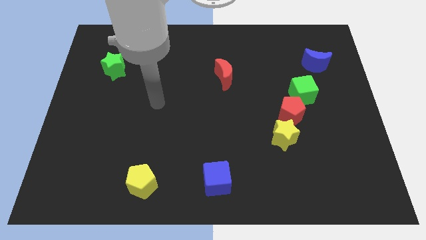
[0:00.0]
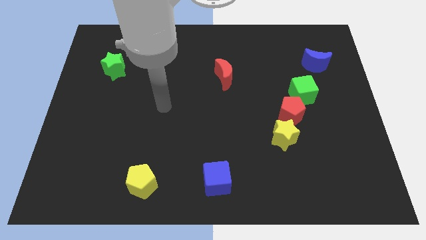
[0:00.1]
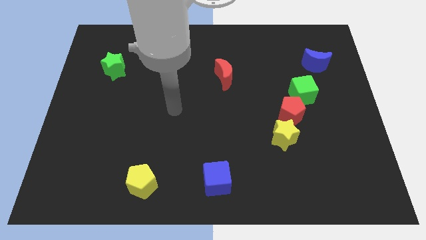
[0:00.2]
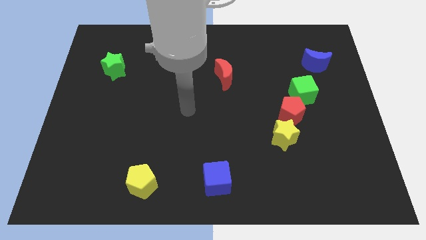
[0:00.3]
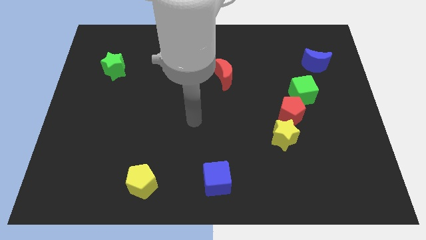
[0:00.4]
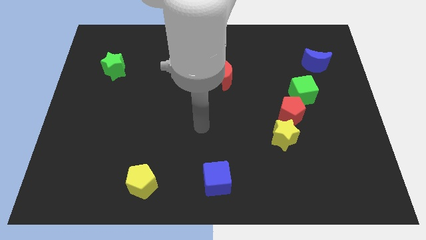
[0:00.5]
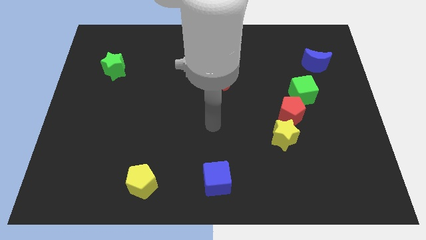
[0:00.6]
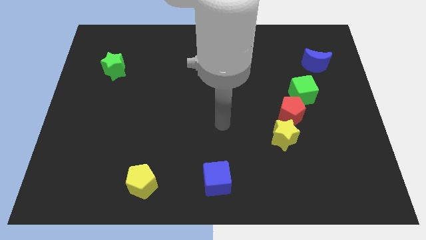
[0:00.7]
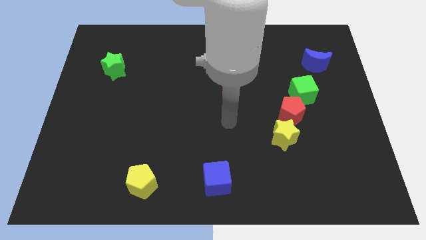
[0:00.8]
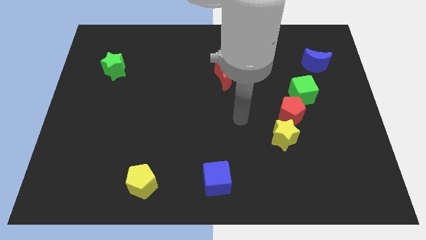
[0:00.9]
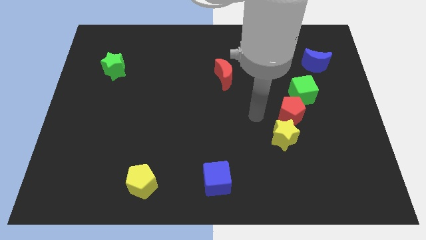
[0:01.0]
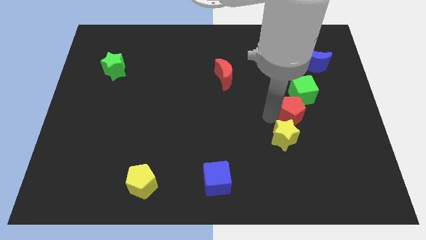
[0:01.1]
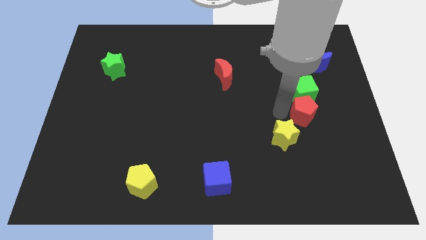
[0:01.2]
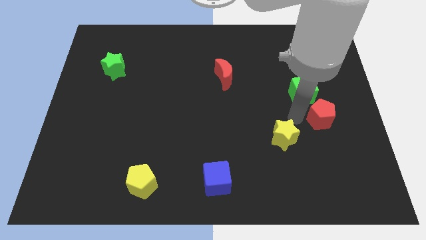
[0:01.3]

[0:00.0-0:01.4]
separate the yellow star from the red pentagon

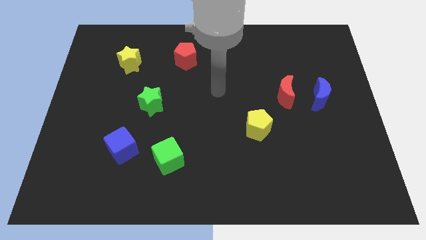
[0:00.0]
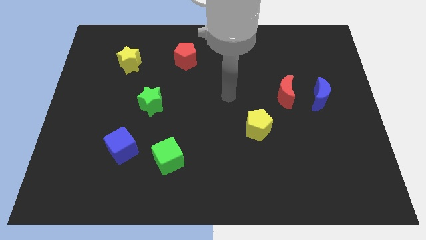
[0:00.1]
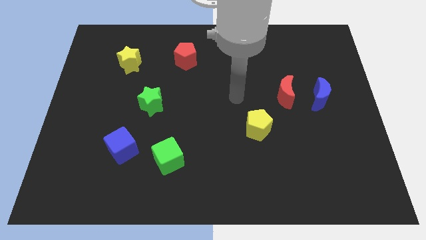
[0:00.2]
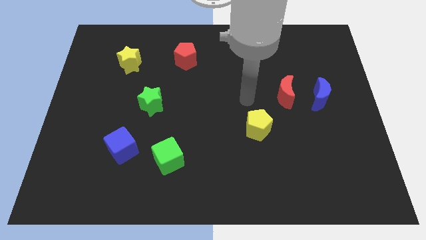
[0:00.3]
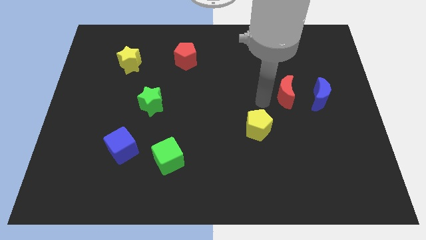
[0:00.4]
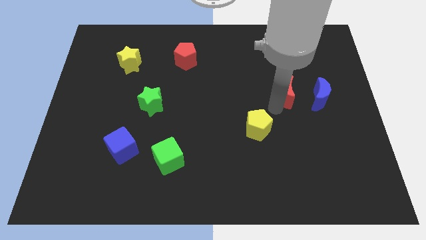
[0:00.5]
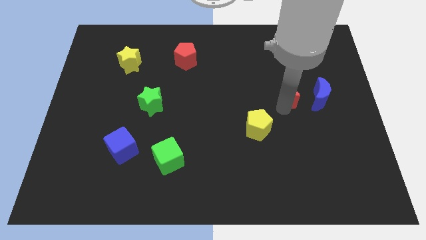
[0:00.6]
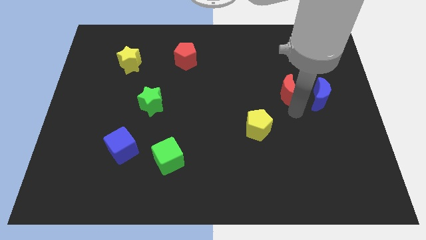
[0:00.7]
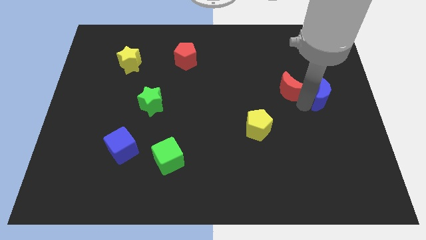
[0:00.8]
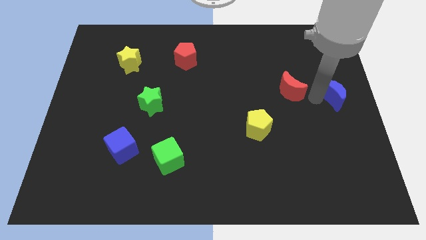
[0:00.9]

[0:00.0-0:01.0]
move the red moon away from the blue moon

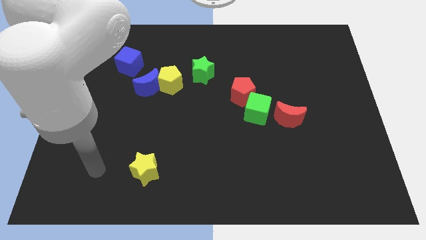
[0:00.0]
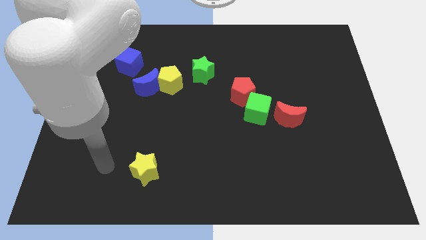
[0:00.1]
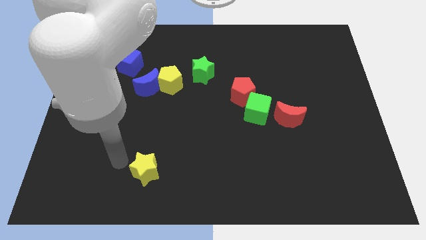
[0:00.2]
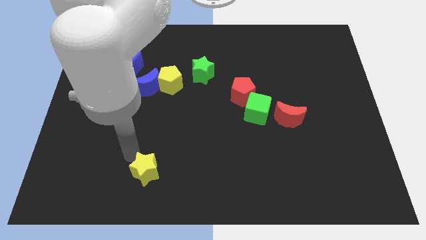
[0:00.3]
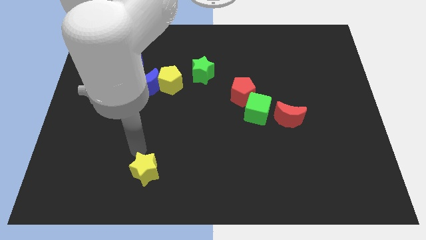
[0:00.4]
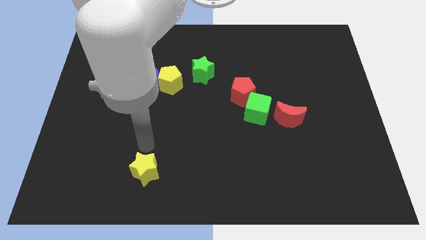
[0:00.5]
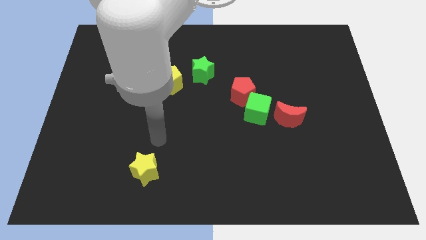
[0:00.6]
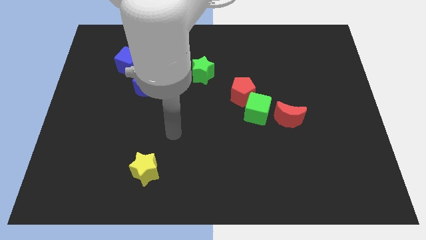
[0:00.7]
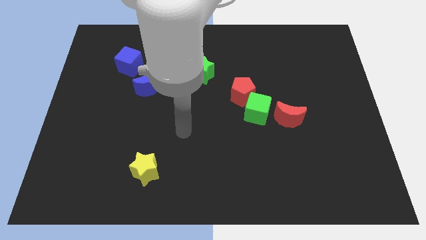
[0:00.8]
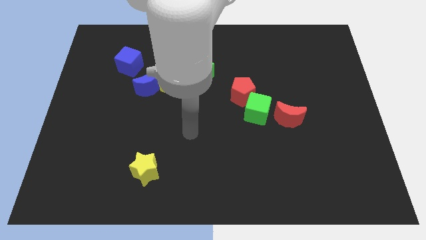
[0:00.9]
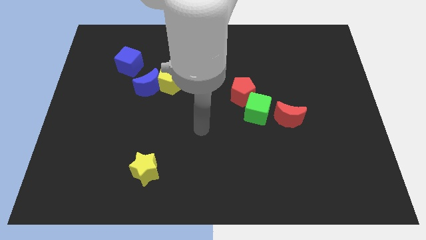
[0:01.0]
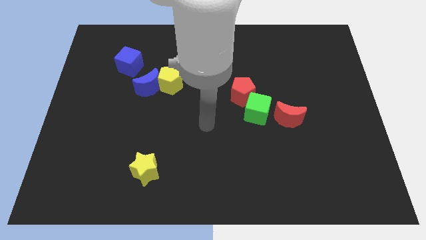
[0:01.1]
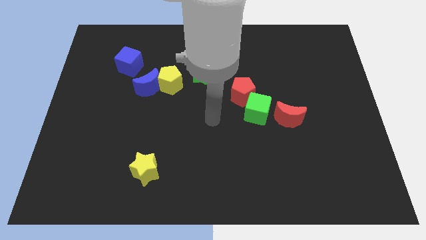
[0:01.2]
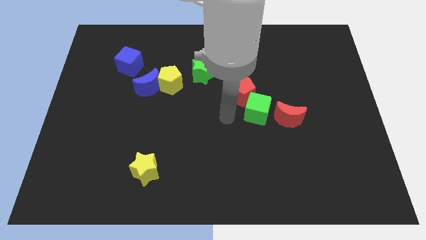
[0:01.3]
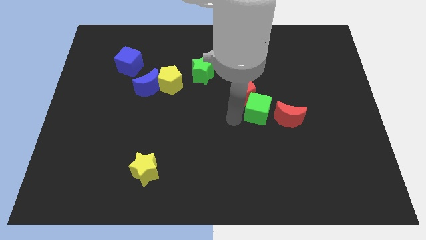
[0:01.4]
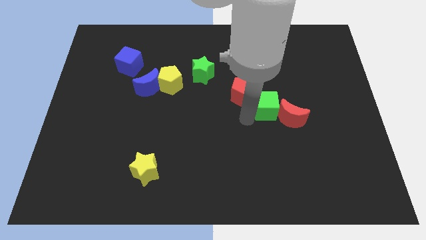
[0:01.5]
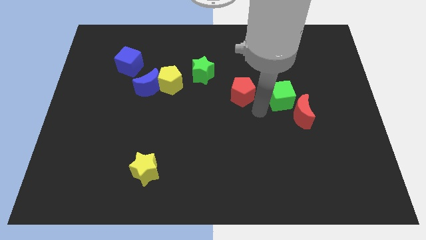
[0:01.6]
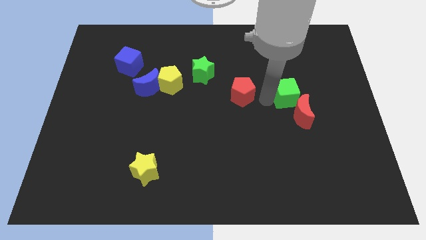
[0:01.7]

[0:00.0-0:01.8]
separate the red pentagon from the green cube

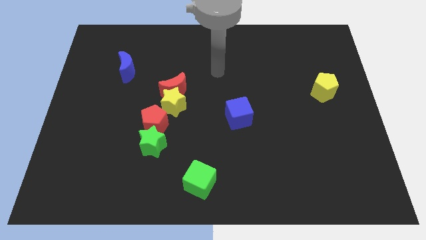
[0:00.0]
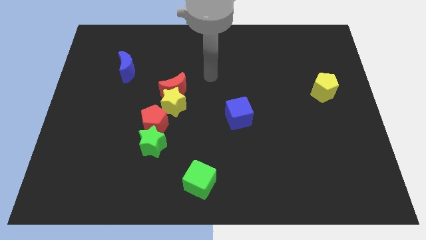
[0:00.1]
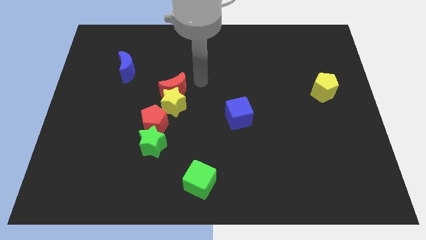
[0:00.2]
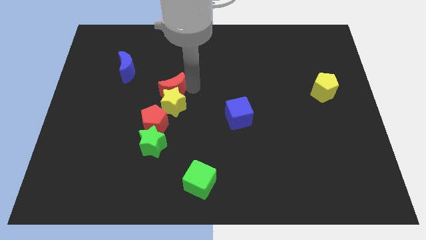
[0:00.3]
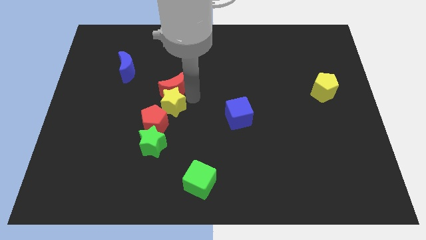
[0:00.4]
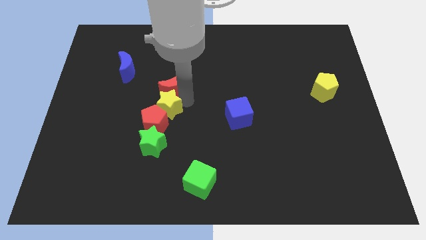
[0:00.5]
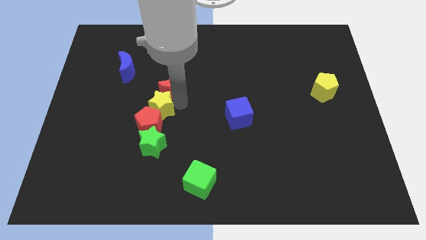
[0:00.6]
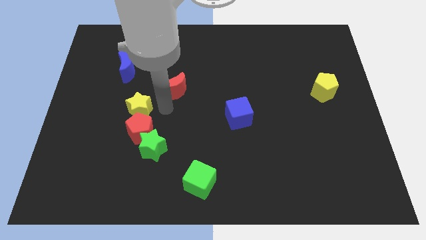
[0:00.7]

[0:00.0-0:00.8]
separate the red moon from the yellow star

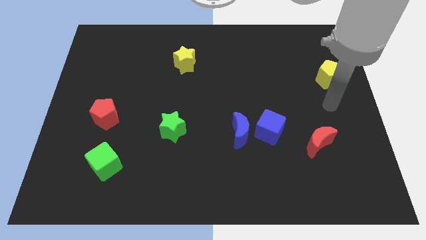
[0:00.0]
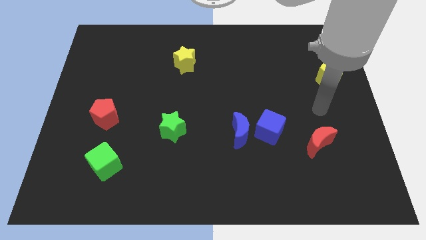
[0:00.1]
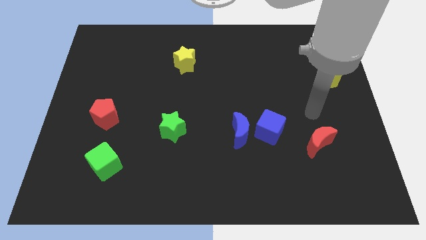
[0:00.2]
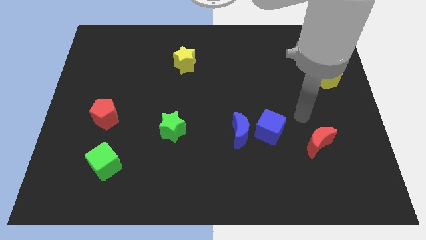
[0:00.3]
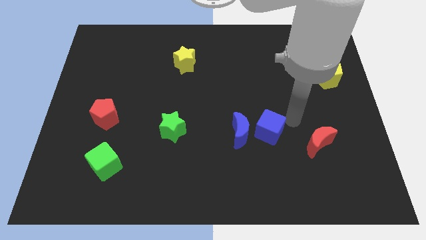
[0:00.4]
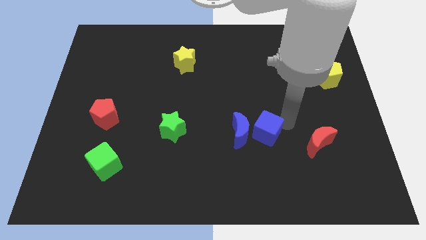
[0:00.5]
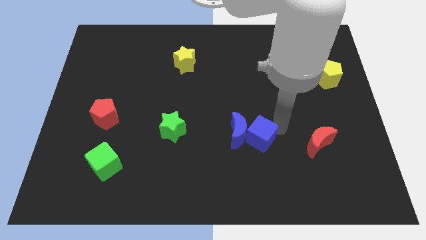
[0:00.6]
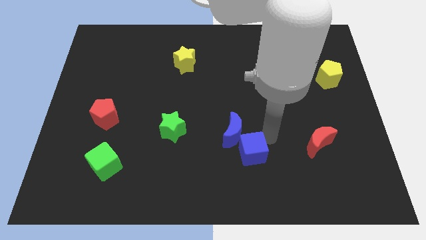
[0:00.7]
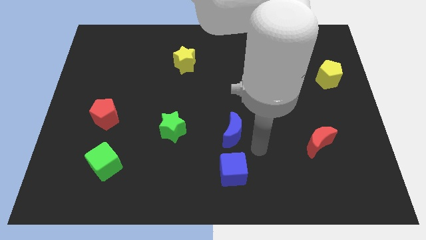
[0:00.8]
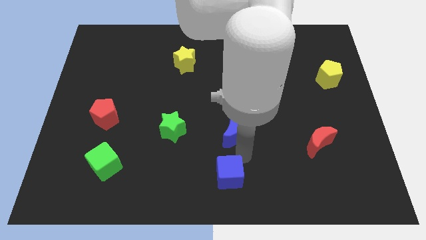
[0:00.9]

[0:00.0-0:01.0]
pull the blue moon apart from the blue cube

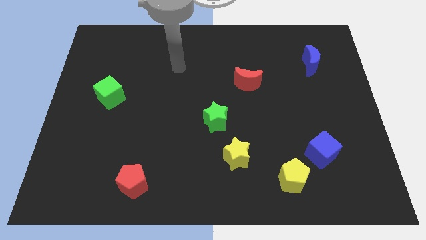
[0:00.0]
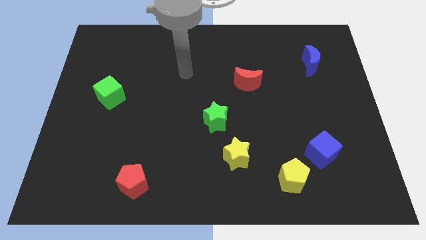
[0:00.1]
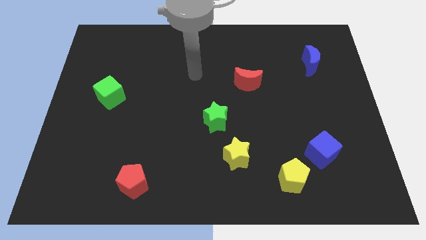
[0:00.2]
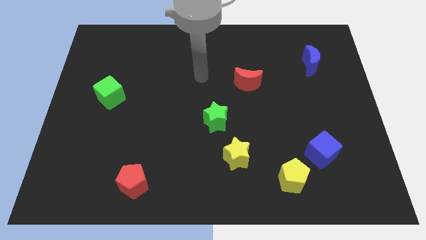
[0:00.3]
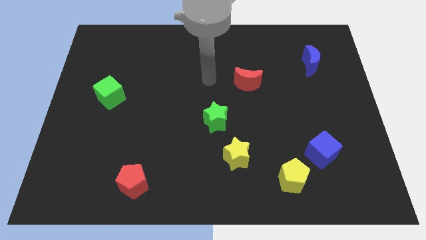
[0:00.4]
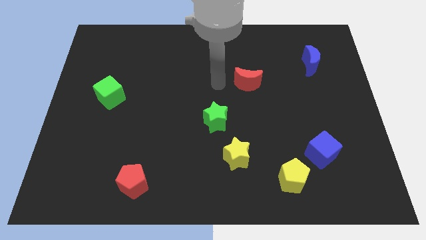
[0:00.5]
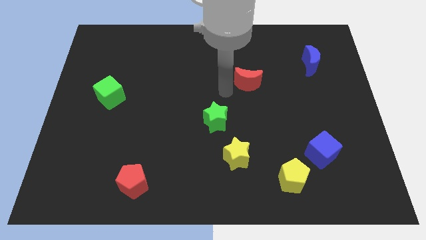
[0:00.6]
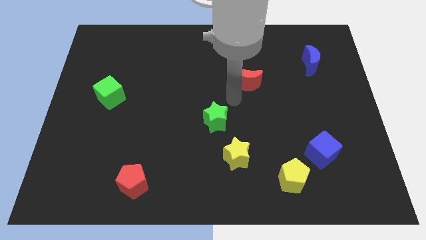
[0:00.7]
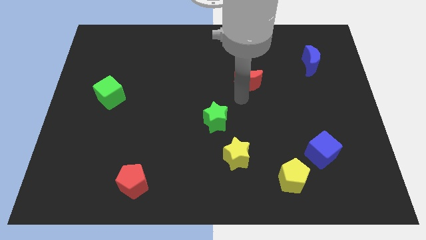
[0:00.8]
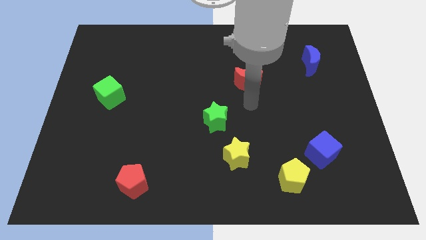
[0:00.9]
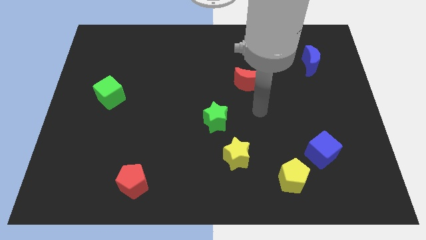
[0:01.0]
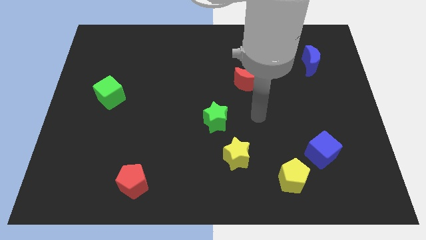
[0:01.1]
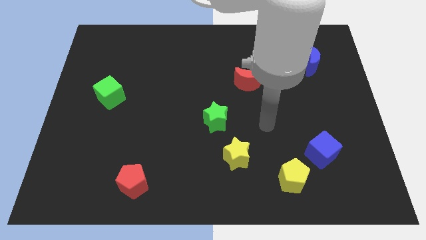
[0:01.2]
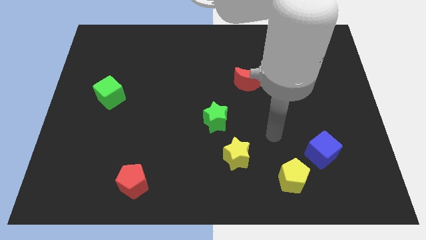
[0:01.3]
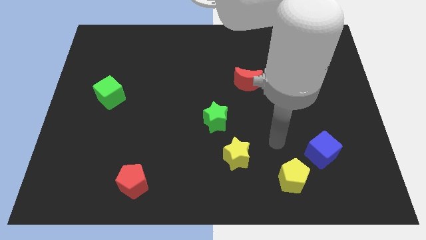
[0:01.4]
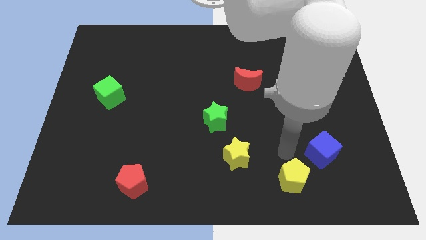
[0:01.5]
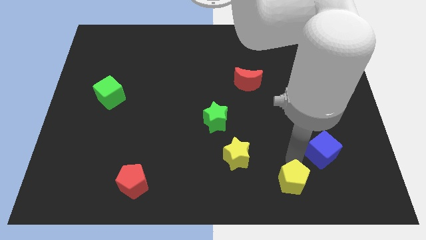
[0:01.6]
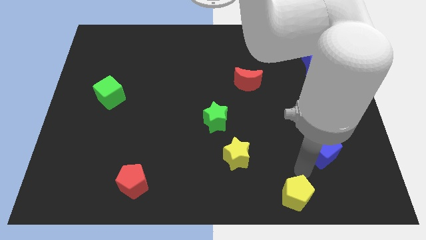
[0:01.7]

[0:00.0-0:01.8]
move the blue cube away from the yellow pentagon

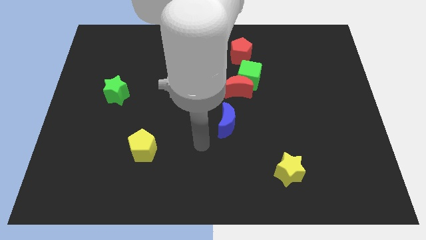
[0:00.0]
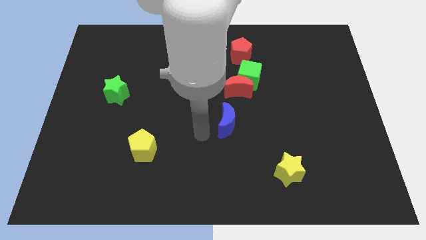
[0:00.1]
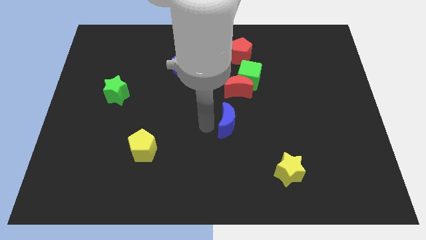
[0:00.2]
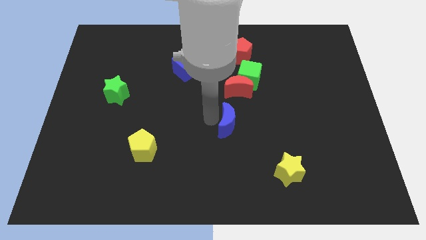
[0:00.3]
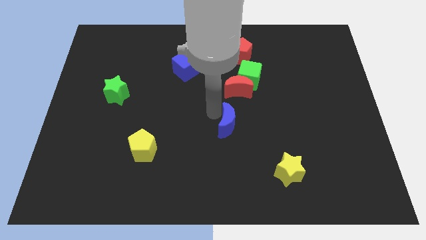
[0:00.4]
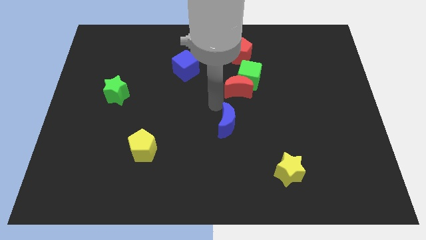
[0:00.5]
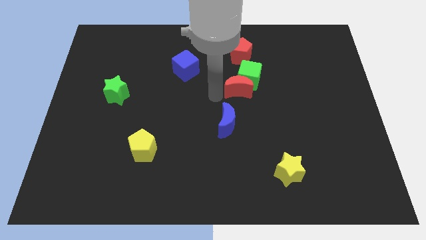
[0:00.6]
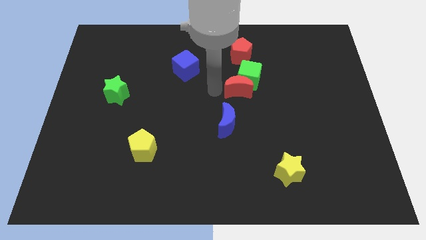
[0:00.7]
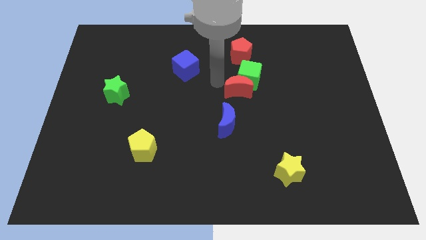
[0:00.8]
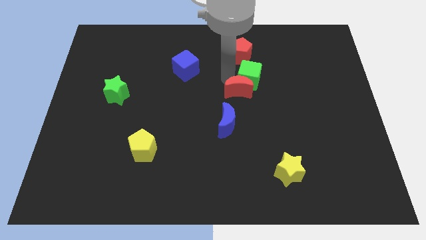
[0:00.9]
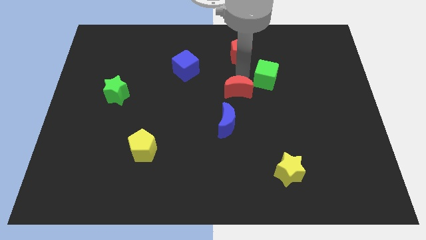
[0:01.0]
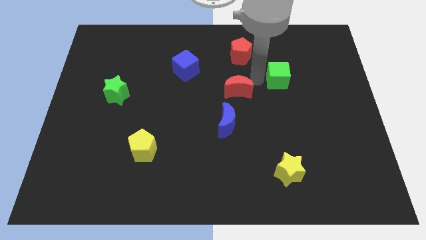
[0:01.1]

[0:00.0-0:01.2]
pull the red moon apart from the green cube

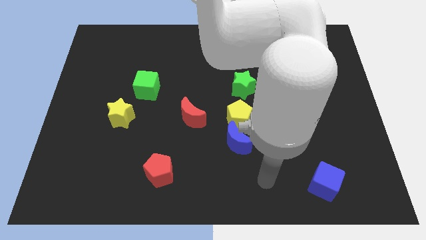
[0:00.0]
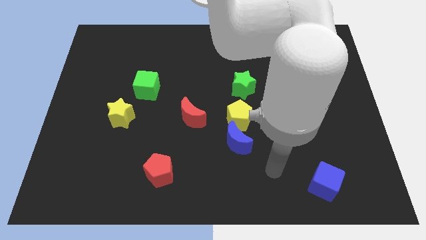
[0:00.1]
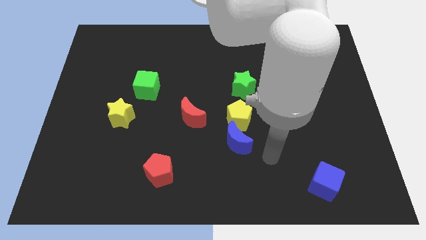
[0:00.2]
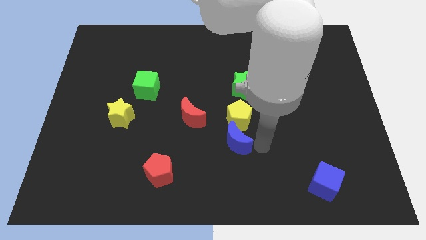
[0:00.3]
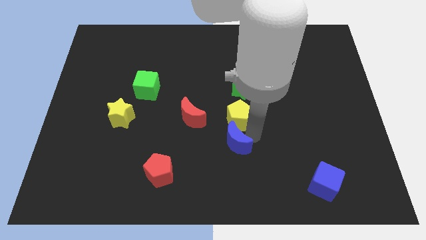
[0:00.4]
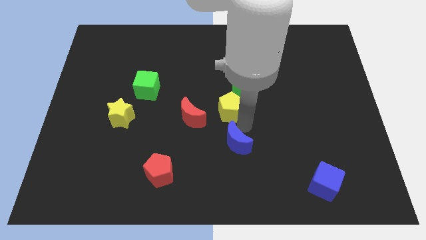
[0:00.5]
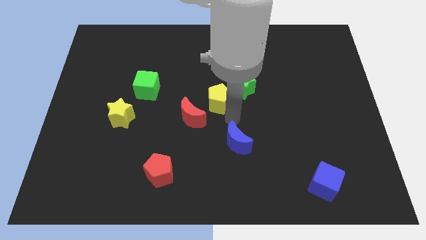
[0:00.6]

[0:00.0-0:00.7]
pull the blue moon apart from the yellow pentagon
